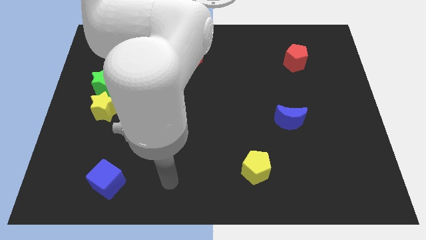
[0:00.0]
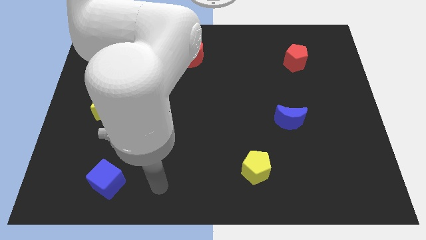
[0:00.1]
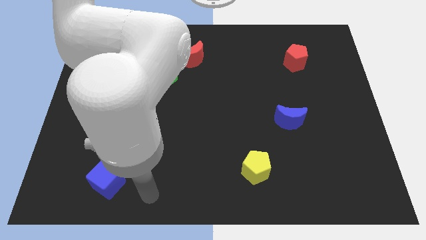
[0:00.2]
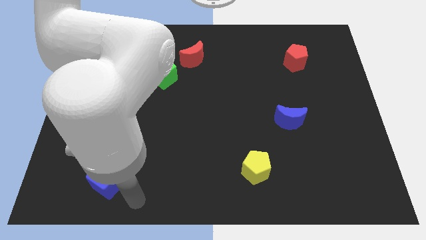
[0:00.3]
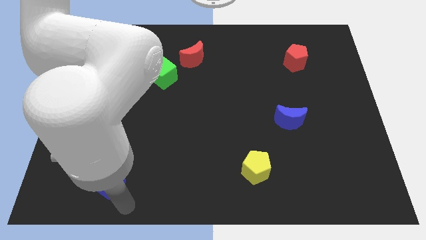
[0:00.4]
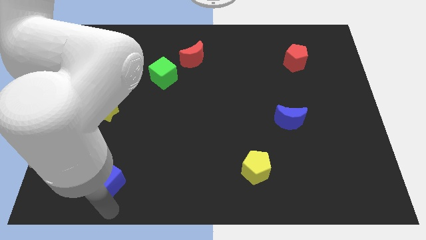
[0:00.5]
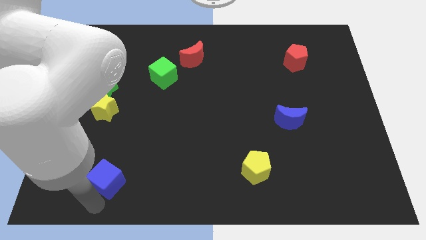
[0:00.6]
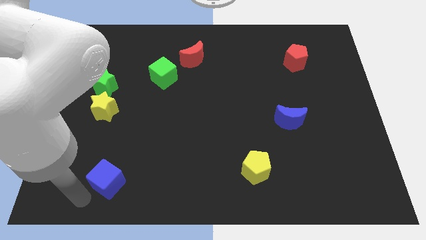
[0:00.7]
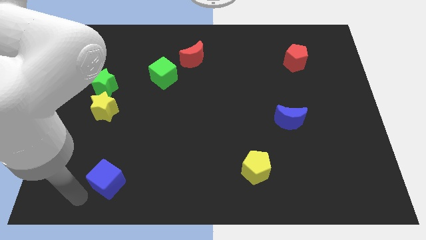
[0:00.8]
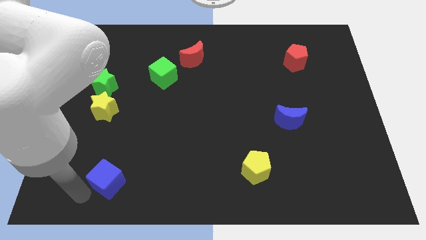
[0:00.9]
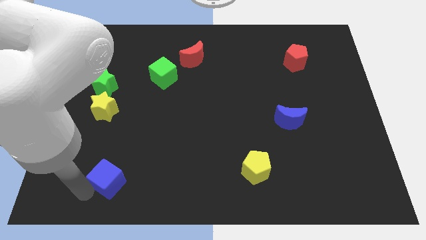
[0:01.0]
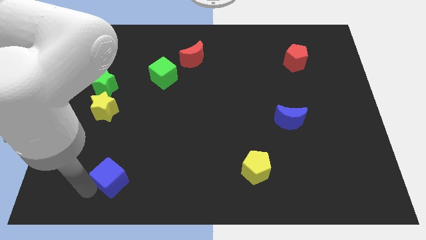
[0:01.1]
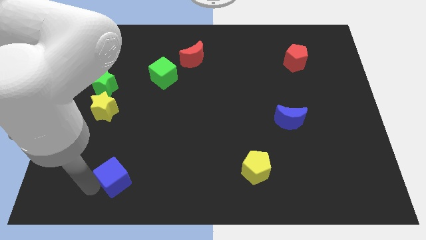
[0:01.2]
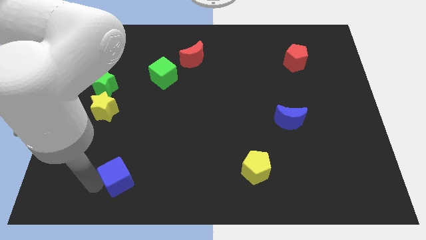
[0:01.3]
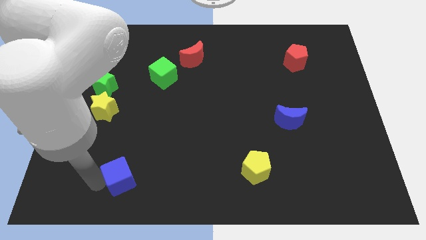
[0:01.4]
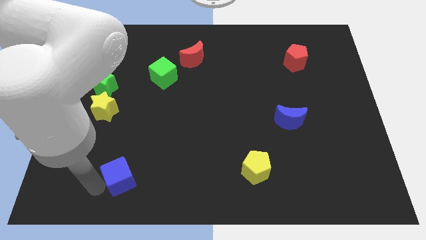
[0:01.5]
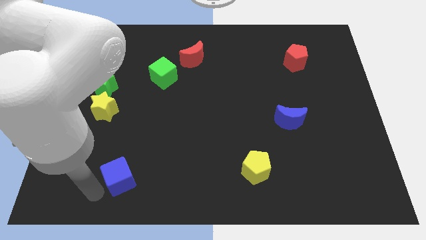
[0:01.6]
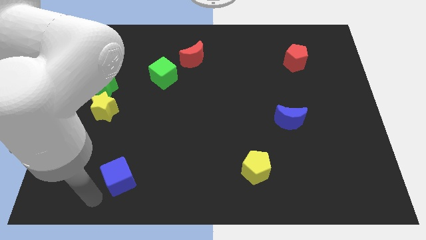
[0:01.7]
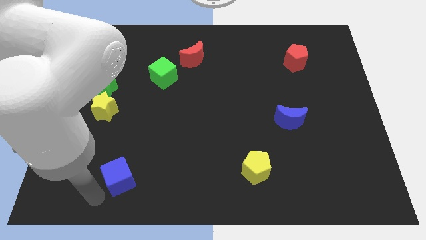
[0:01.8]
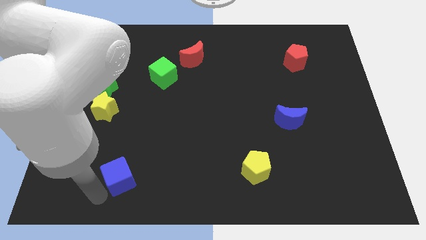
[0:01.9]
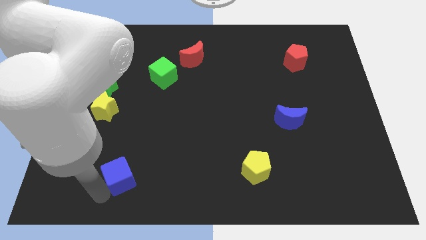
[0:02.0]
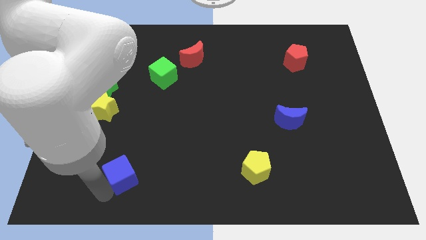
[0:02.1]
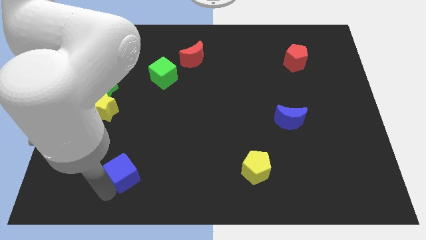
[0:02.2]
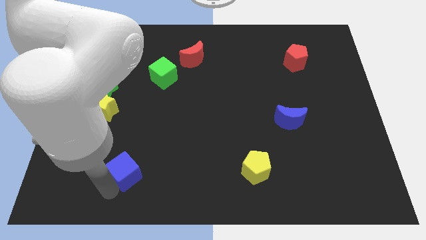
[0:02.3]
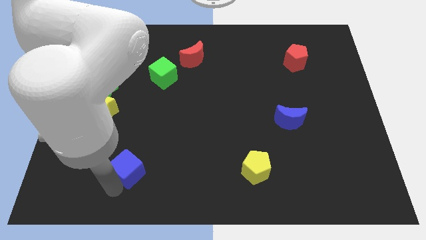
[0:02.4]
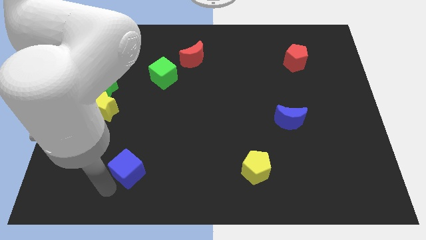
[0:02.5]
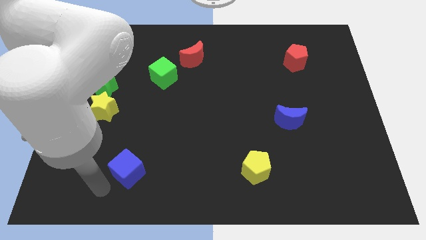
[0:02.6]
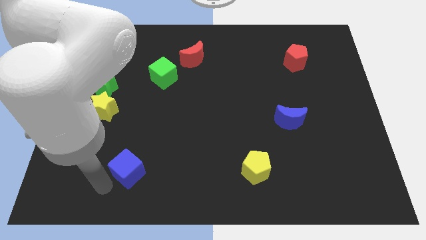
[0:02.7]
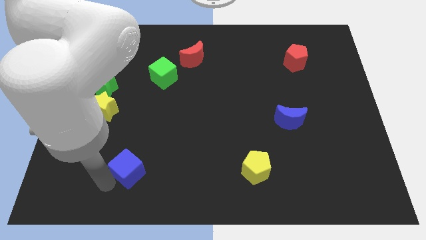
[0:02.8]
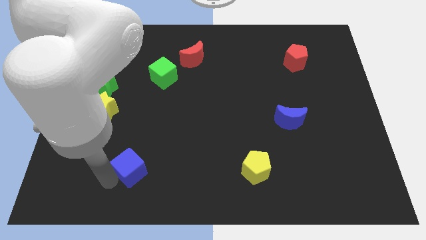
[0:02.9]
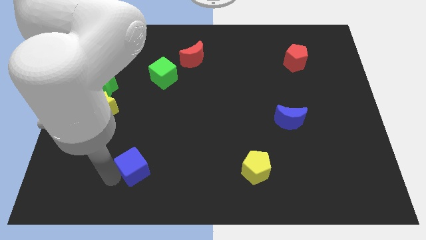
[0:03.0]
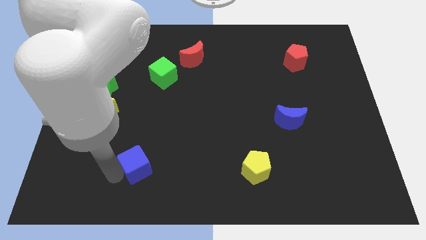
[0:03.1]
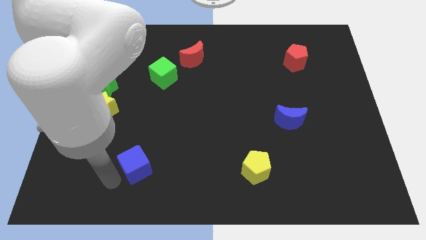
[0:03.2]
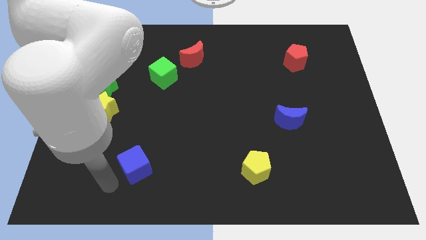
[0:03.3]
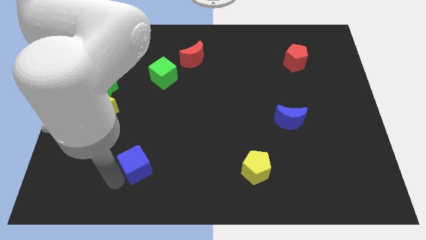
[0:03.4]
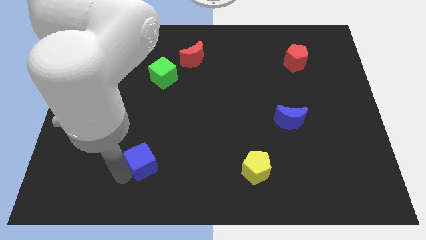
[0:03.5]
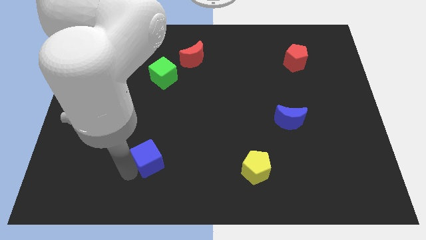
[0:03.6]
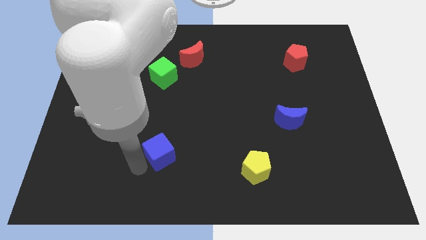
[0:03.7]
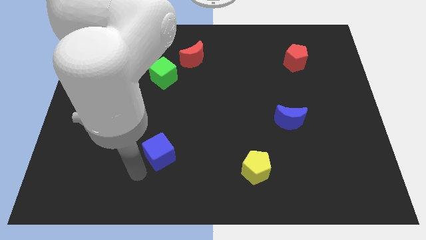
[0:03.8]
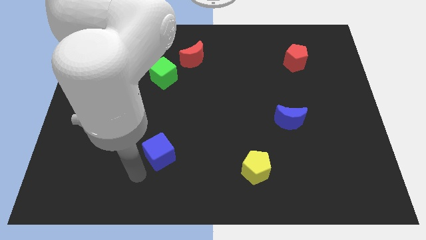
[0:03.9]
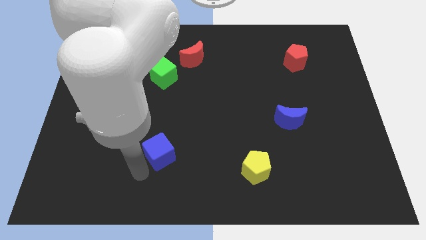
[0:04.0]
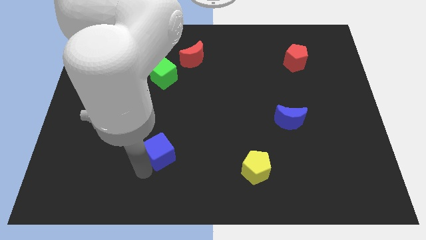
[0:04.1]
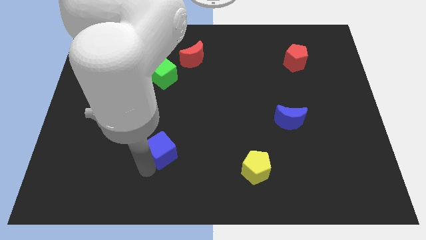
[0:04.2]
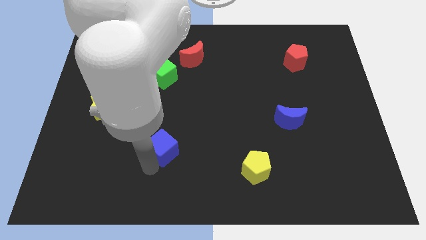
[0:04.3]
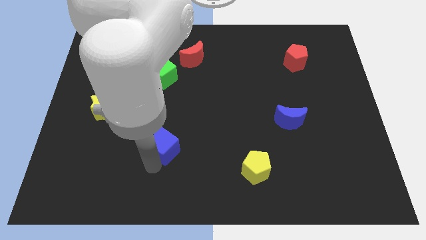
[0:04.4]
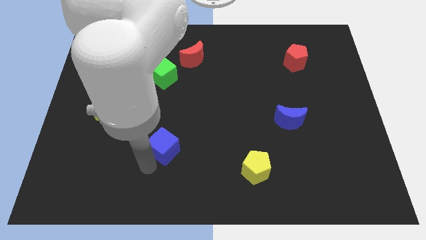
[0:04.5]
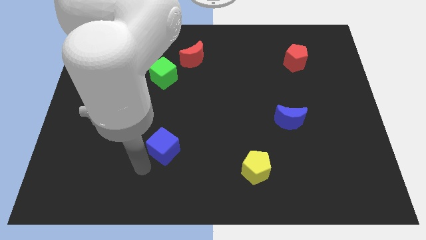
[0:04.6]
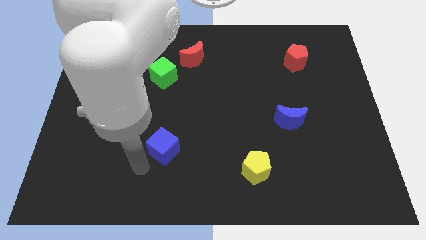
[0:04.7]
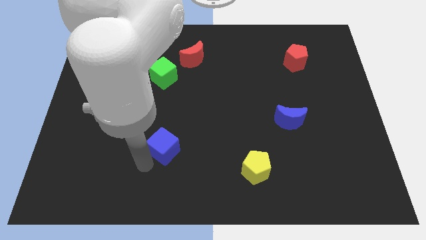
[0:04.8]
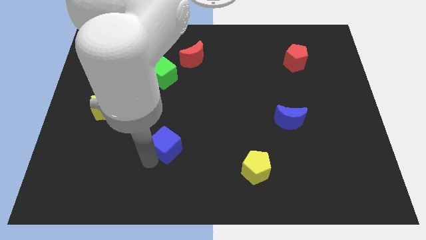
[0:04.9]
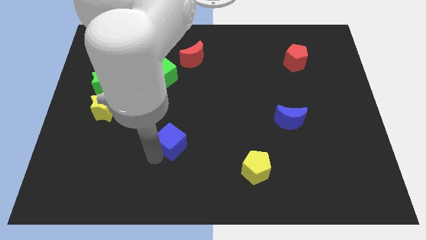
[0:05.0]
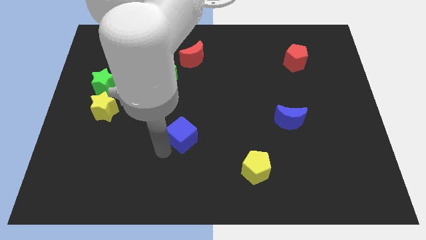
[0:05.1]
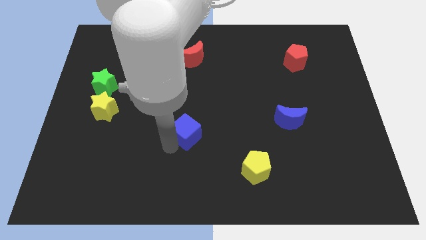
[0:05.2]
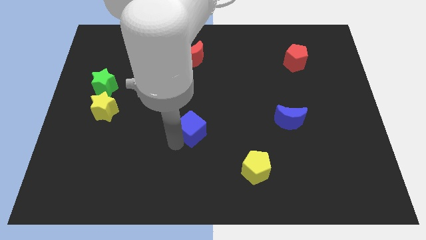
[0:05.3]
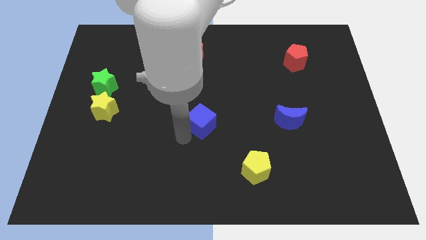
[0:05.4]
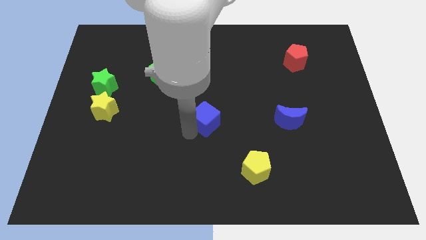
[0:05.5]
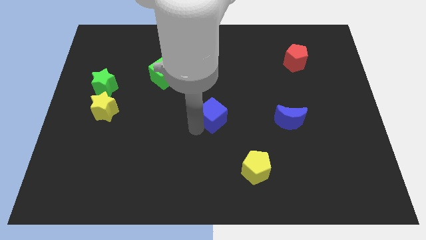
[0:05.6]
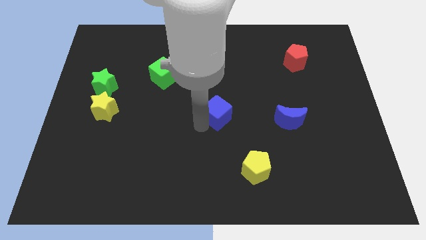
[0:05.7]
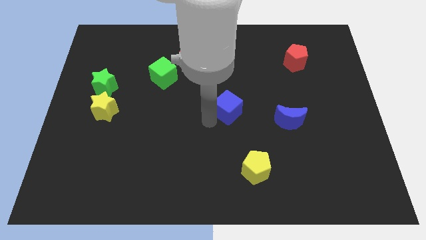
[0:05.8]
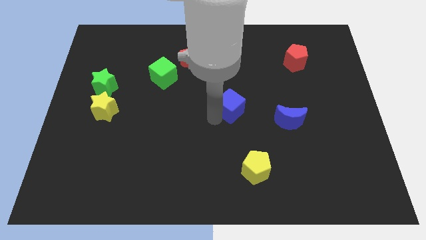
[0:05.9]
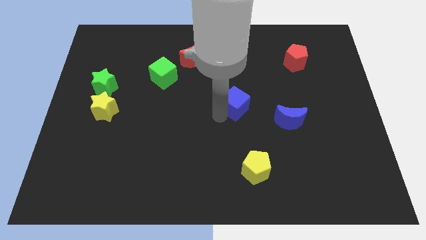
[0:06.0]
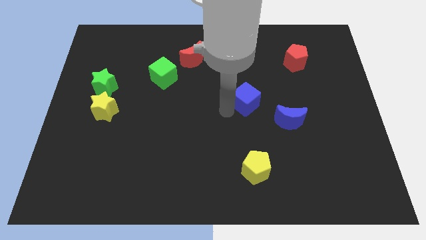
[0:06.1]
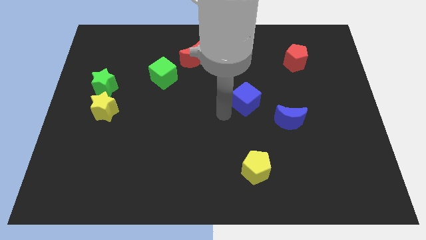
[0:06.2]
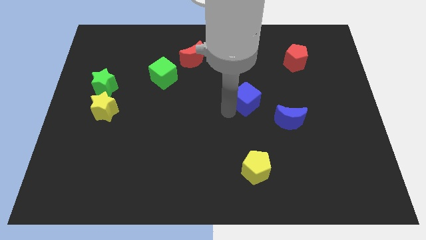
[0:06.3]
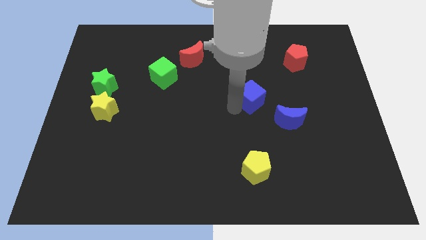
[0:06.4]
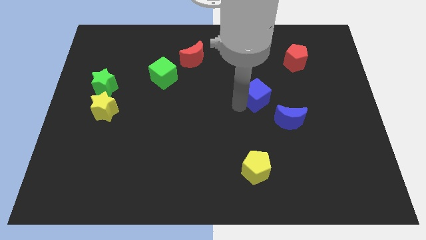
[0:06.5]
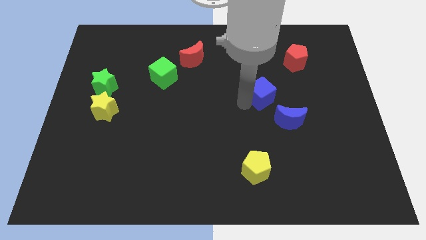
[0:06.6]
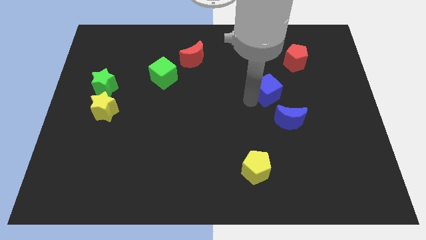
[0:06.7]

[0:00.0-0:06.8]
put the blue cube to the top of the blue moon
